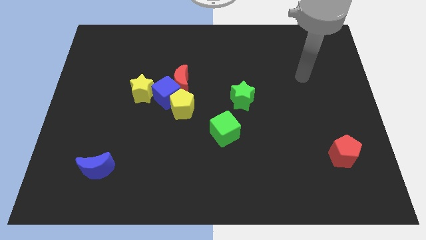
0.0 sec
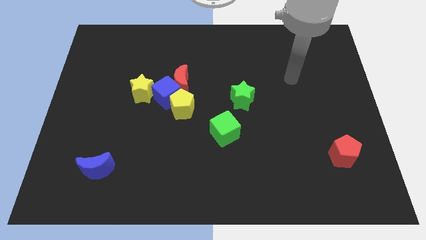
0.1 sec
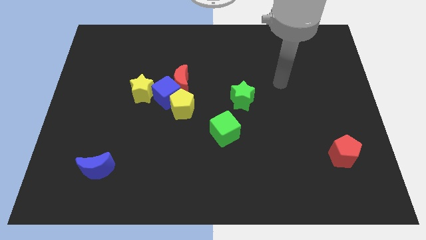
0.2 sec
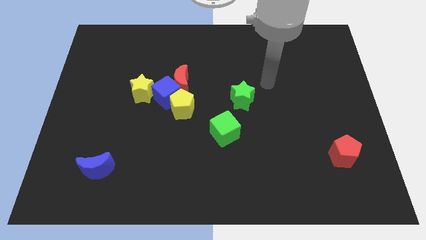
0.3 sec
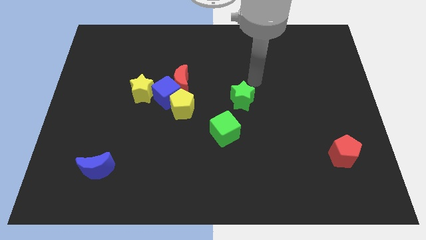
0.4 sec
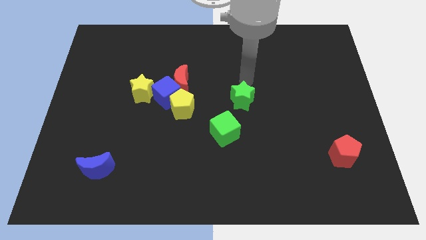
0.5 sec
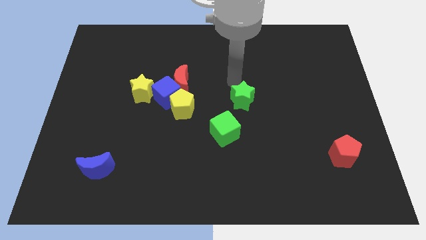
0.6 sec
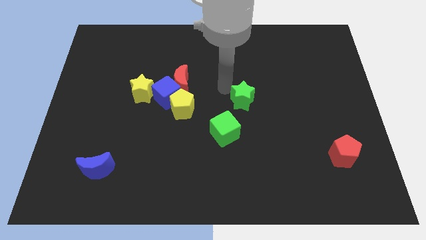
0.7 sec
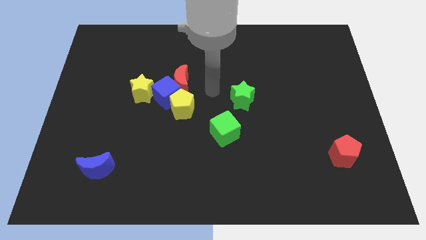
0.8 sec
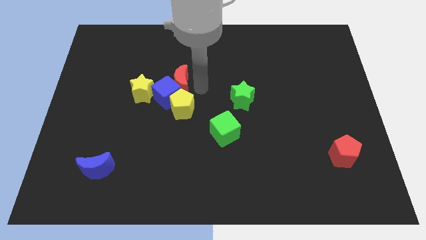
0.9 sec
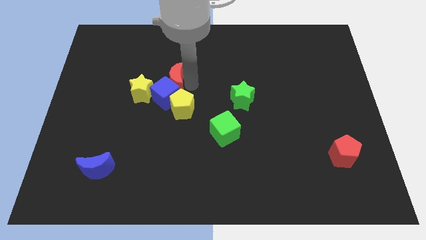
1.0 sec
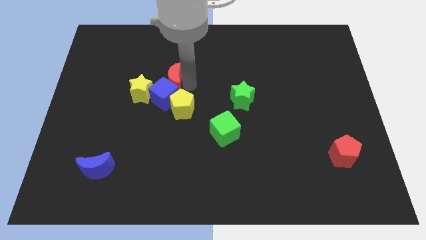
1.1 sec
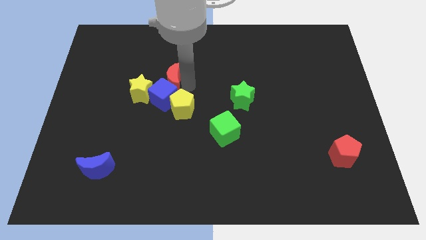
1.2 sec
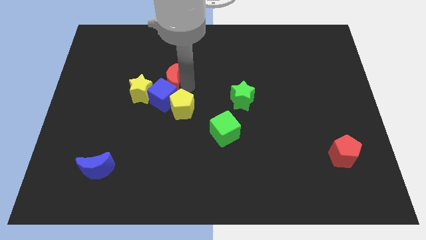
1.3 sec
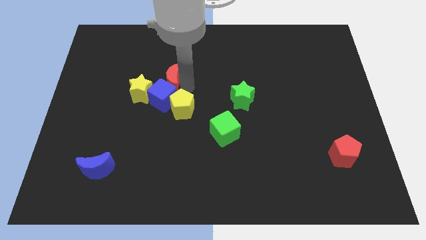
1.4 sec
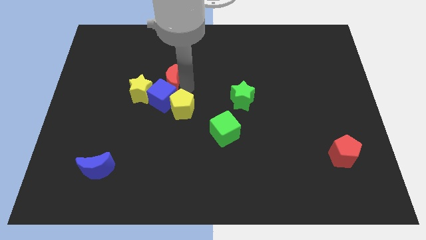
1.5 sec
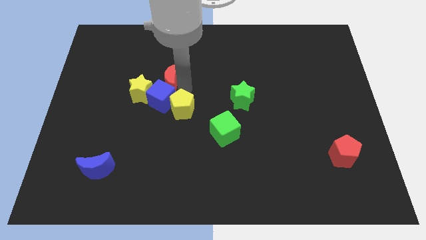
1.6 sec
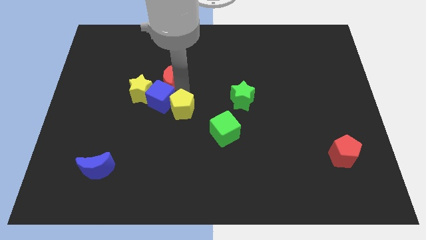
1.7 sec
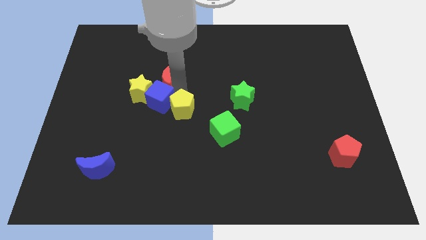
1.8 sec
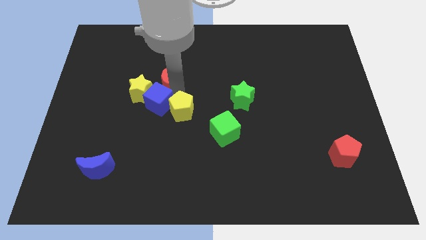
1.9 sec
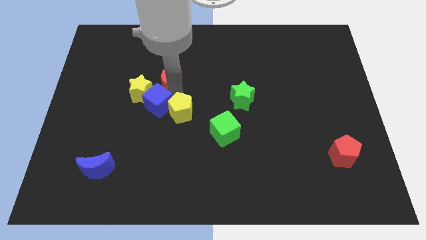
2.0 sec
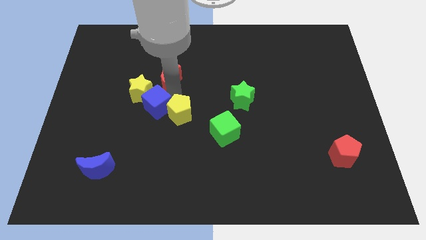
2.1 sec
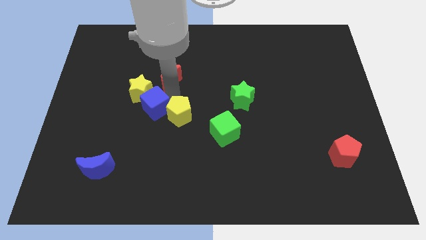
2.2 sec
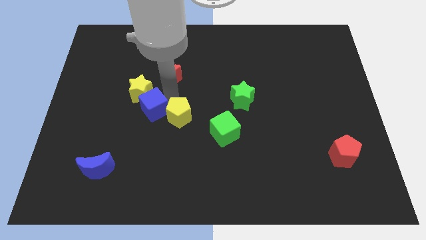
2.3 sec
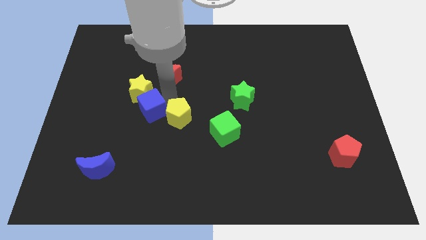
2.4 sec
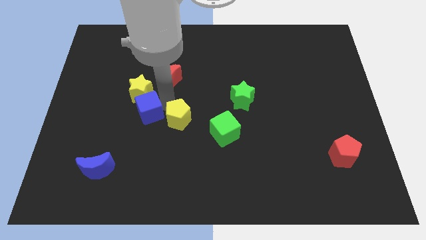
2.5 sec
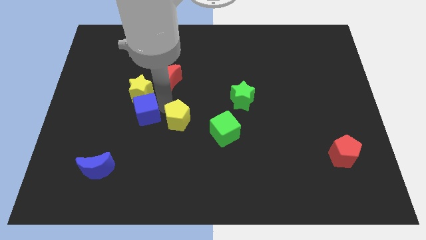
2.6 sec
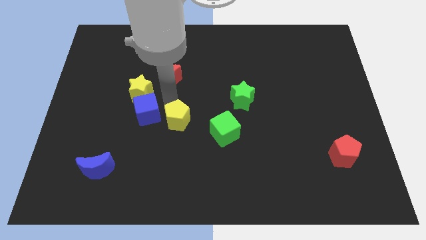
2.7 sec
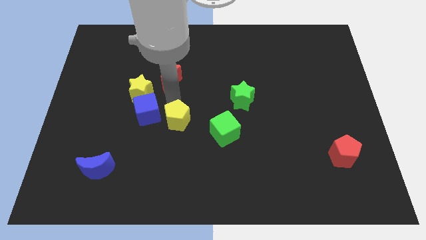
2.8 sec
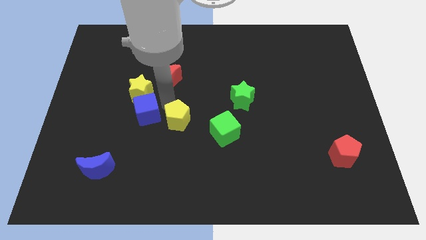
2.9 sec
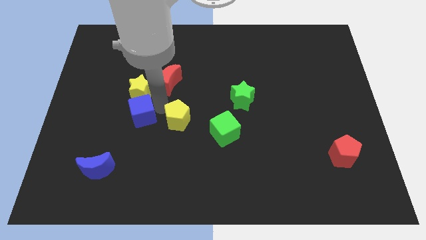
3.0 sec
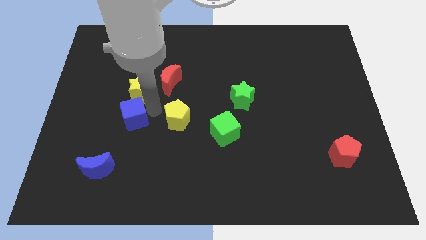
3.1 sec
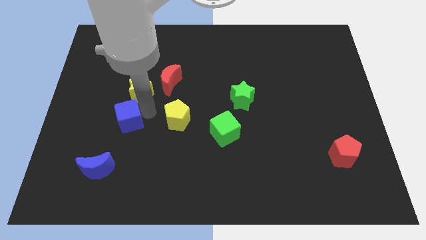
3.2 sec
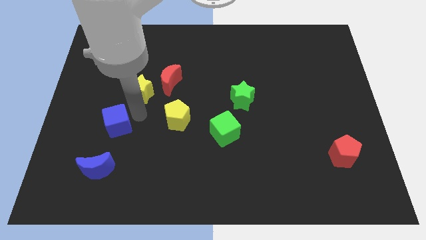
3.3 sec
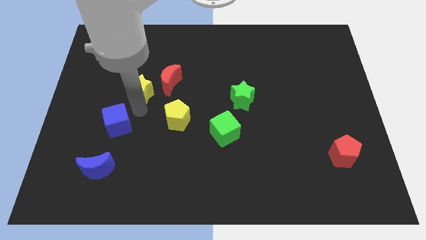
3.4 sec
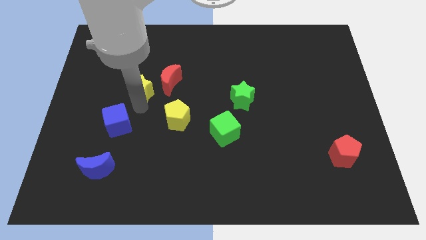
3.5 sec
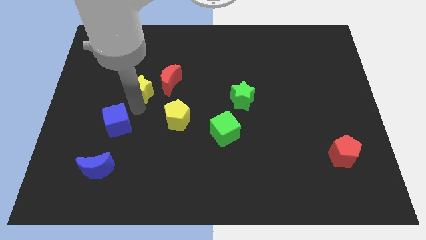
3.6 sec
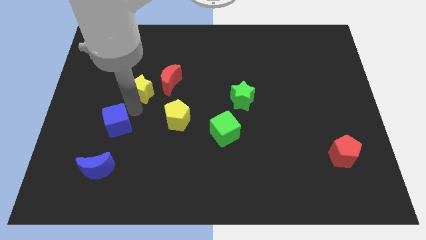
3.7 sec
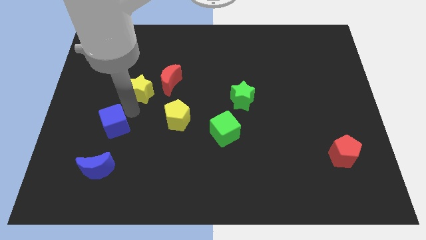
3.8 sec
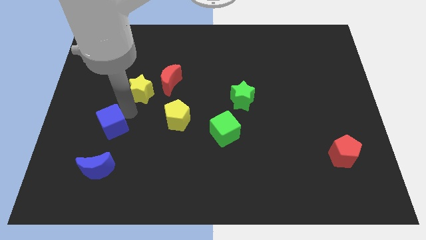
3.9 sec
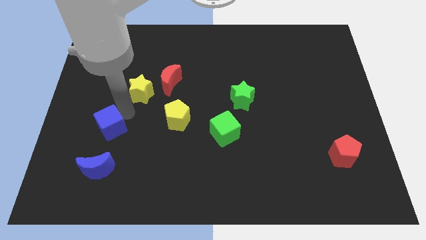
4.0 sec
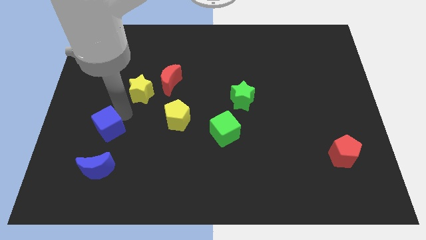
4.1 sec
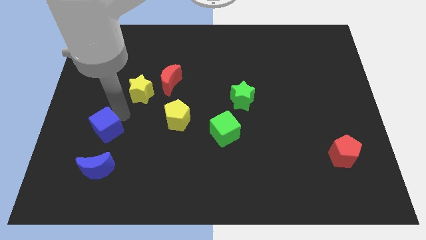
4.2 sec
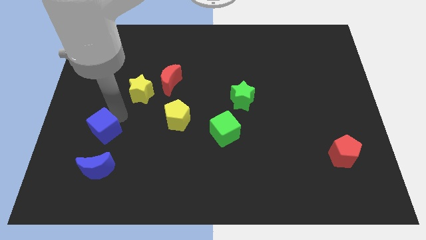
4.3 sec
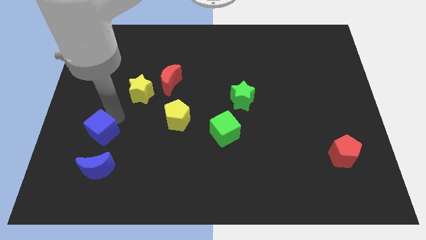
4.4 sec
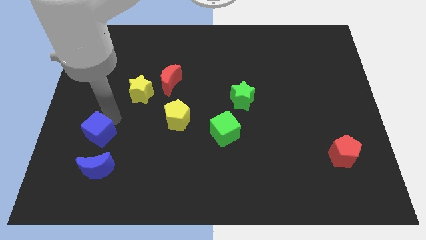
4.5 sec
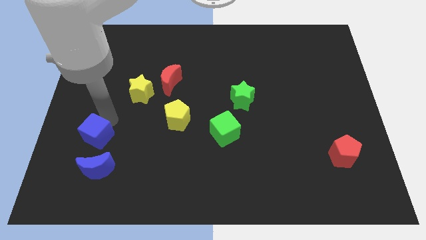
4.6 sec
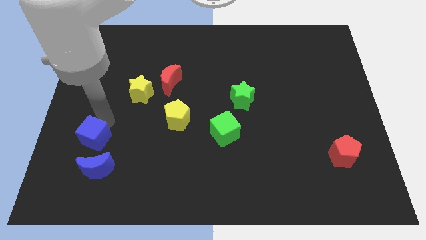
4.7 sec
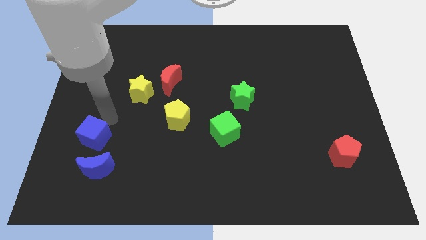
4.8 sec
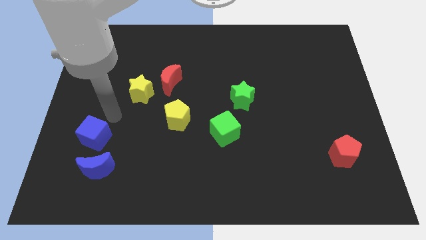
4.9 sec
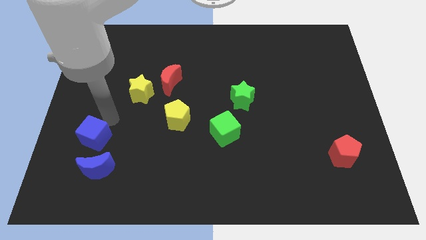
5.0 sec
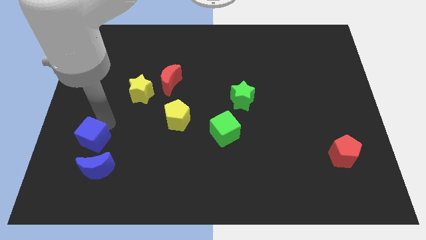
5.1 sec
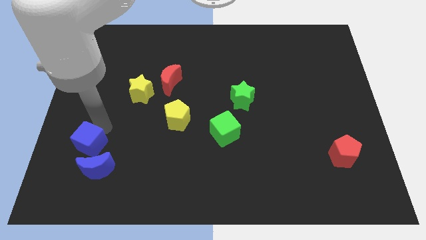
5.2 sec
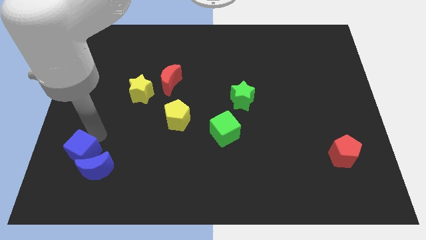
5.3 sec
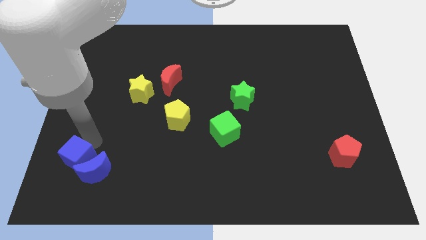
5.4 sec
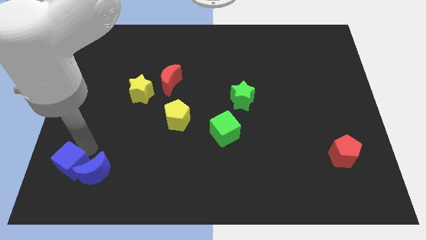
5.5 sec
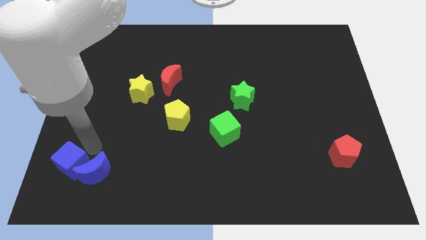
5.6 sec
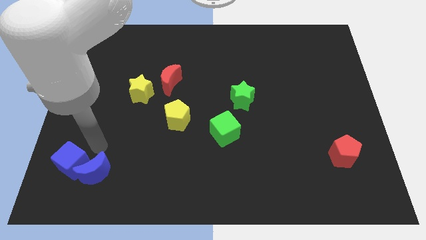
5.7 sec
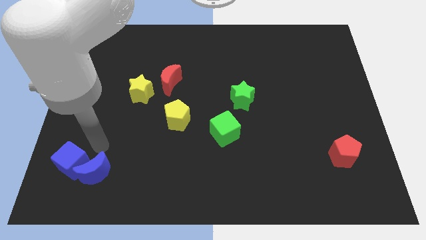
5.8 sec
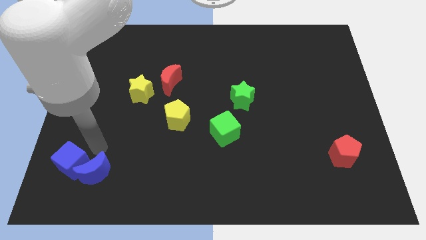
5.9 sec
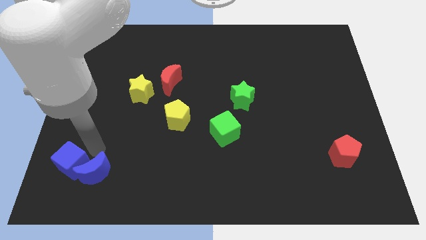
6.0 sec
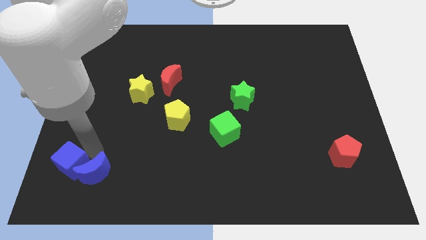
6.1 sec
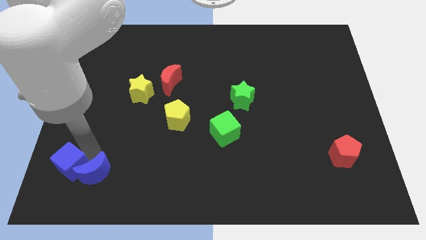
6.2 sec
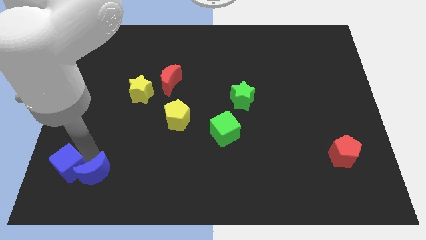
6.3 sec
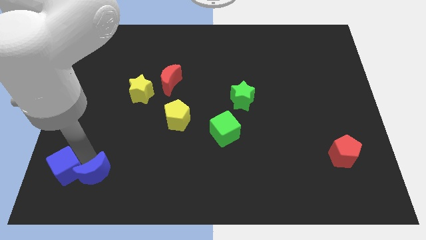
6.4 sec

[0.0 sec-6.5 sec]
put the blue cube to the bottom left
